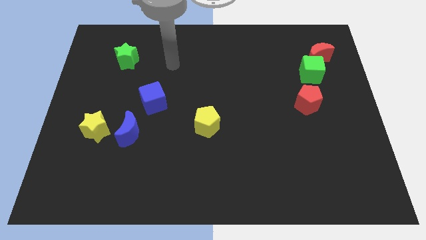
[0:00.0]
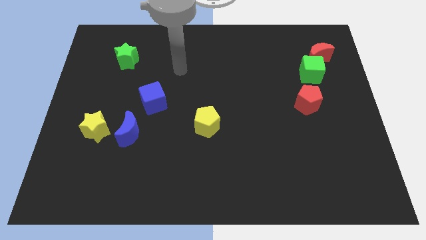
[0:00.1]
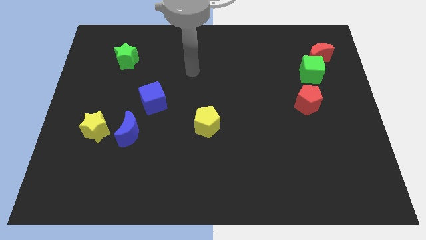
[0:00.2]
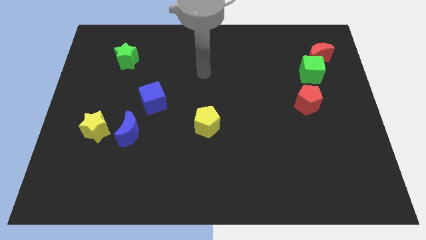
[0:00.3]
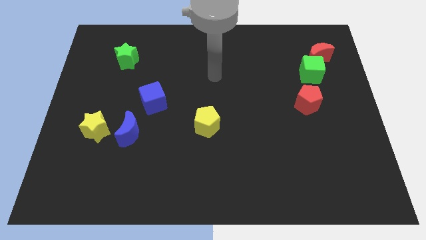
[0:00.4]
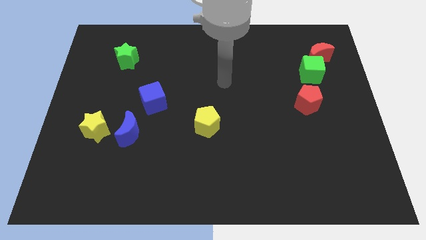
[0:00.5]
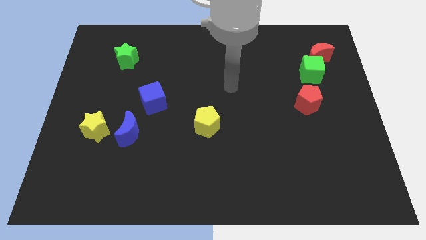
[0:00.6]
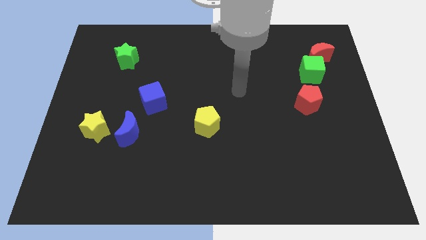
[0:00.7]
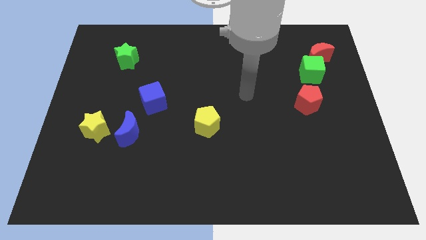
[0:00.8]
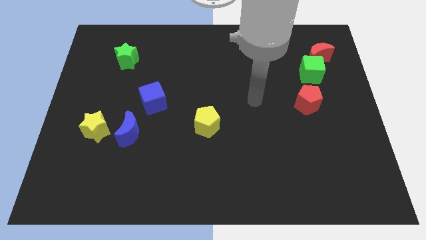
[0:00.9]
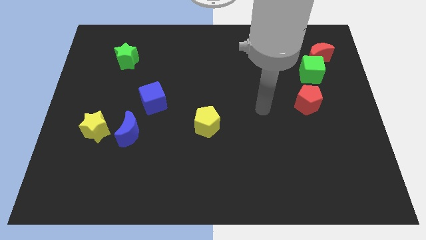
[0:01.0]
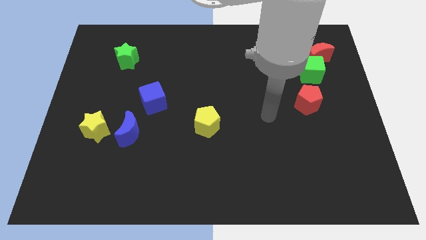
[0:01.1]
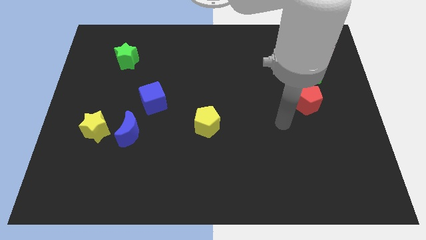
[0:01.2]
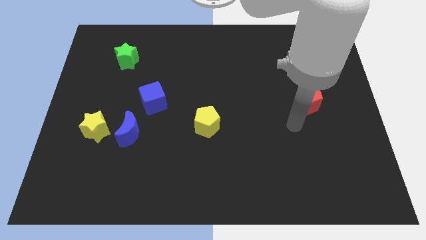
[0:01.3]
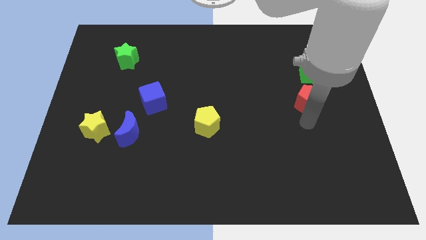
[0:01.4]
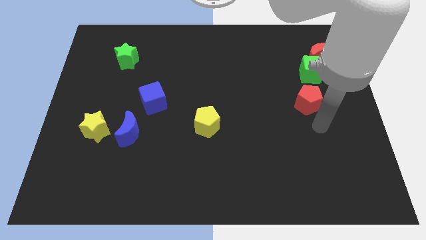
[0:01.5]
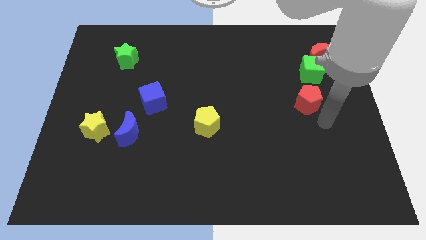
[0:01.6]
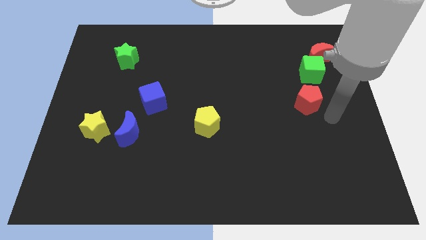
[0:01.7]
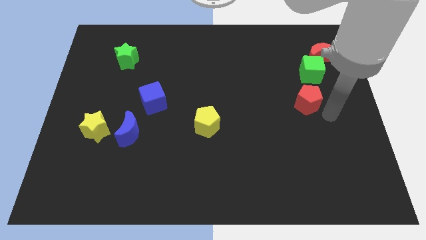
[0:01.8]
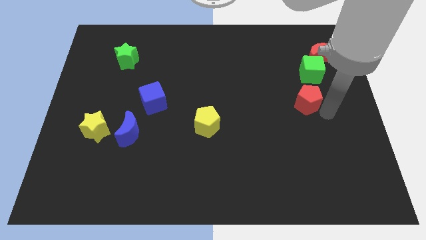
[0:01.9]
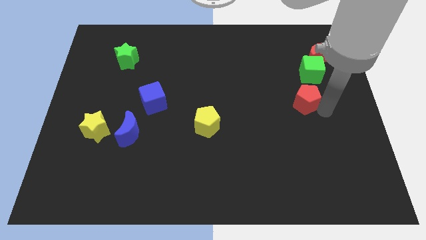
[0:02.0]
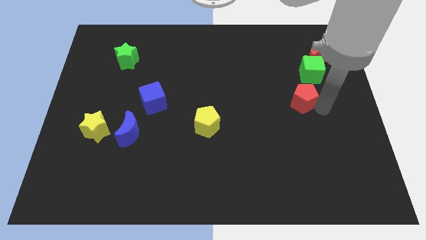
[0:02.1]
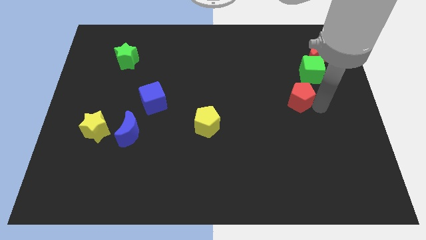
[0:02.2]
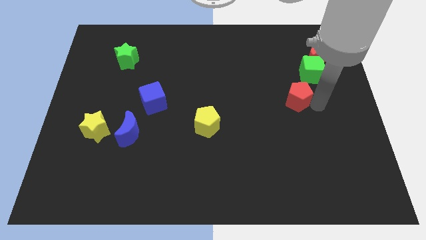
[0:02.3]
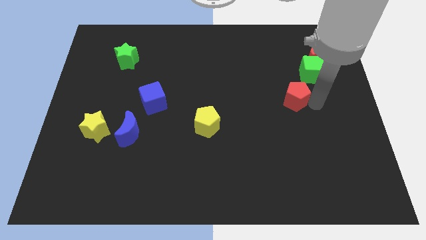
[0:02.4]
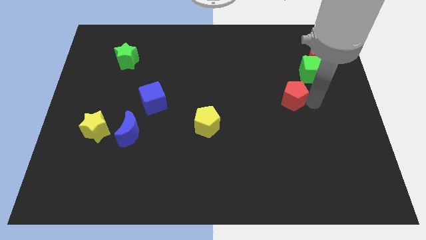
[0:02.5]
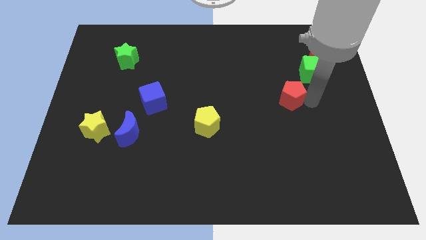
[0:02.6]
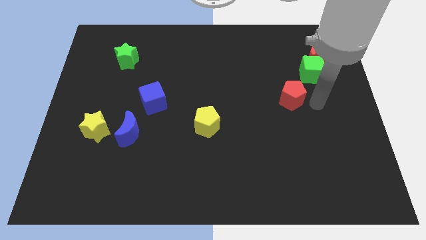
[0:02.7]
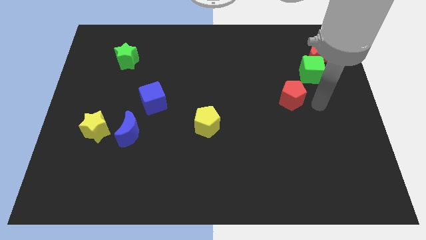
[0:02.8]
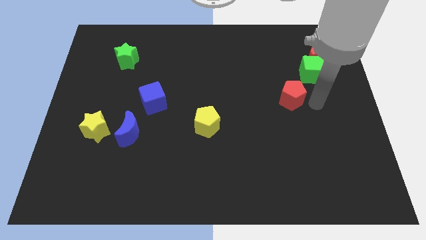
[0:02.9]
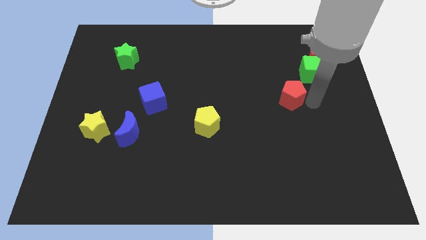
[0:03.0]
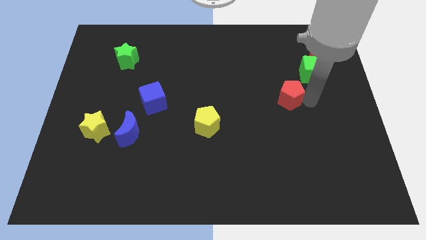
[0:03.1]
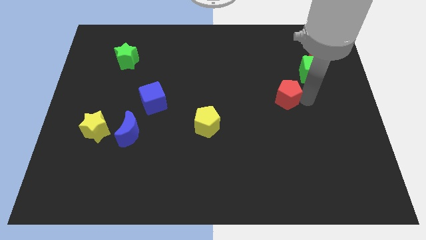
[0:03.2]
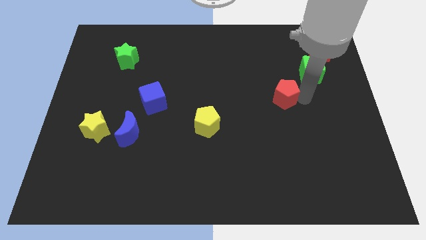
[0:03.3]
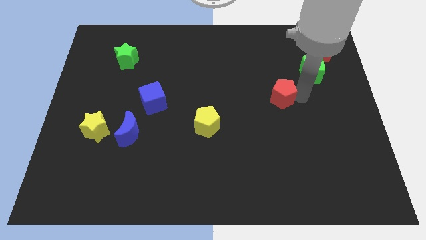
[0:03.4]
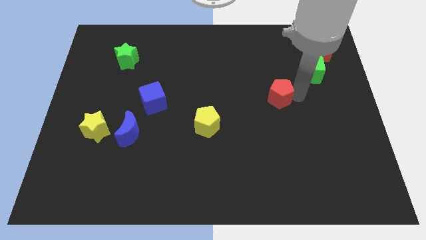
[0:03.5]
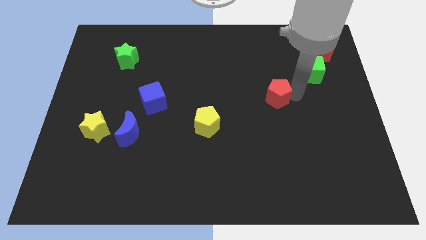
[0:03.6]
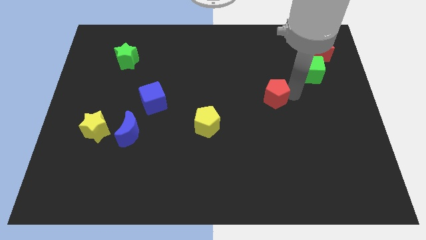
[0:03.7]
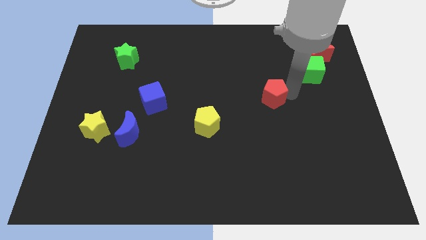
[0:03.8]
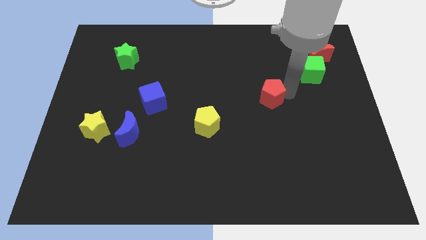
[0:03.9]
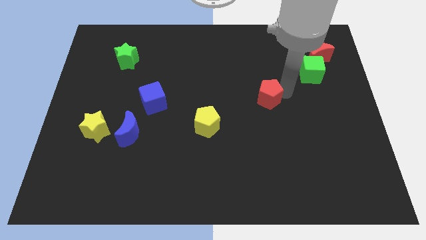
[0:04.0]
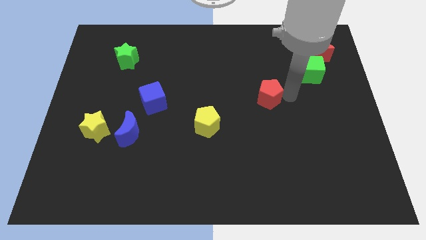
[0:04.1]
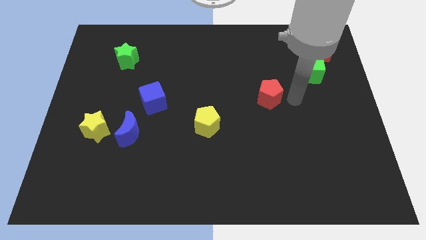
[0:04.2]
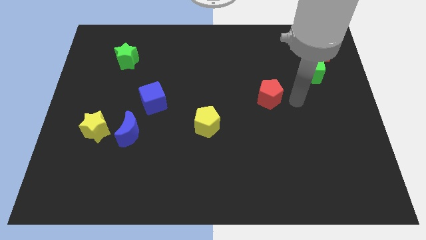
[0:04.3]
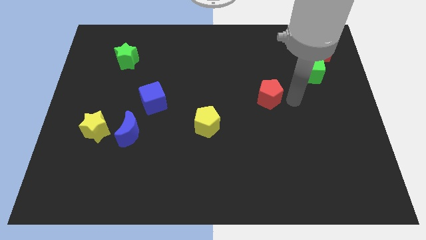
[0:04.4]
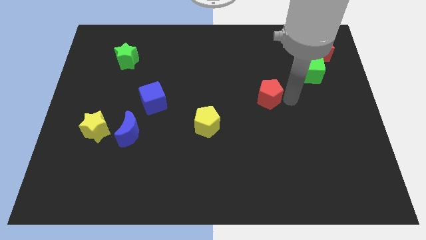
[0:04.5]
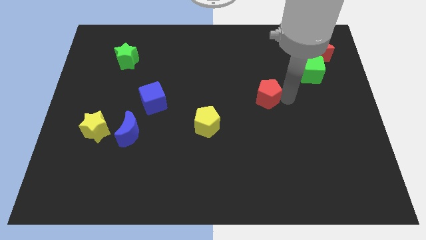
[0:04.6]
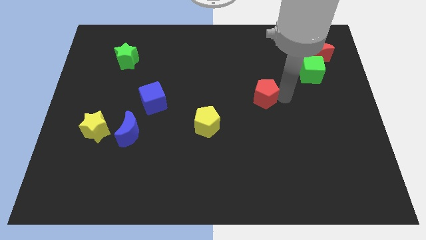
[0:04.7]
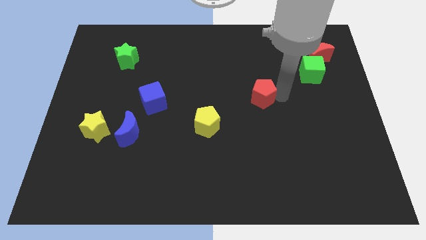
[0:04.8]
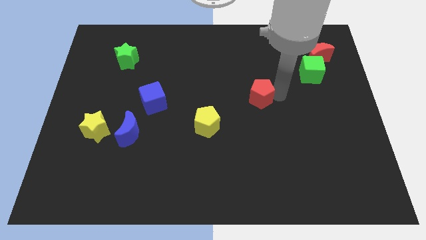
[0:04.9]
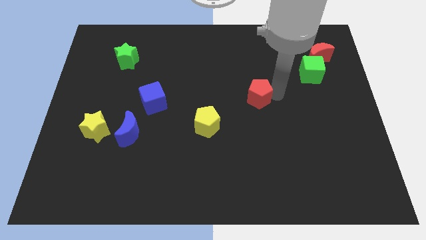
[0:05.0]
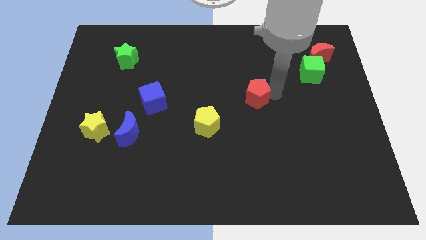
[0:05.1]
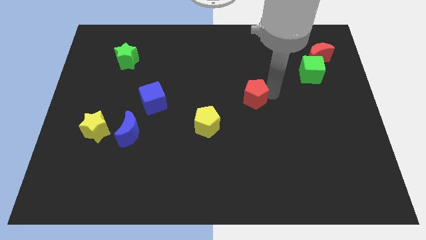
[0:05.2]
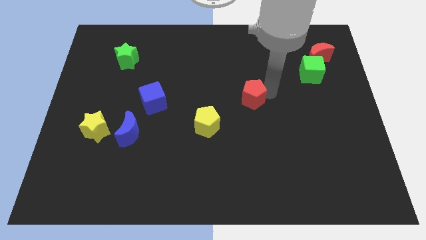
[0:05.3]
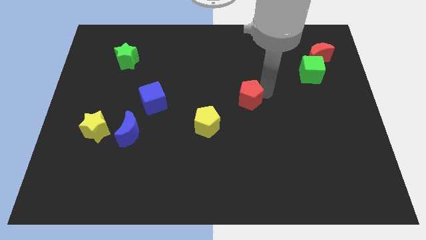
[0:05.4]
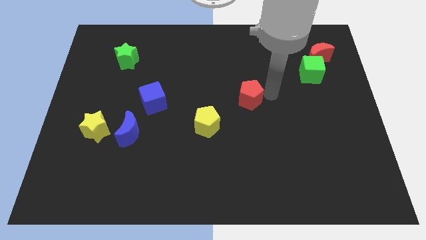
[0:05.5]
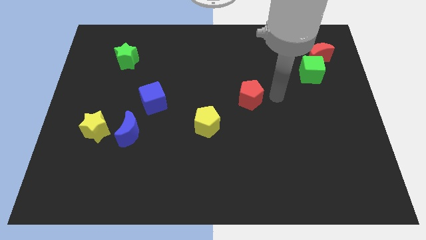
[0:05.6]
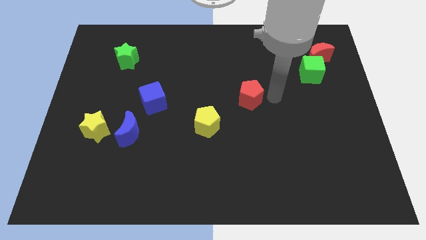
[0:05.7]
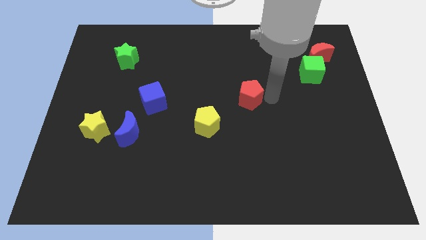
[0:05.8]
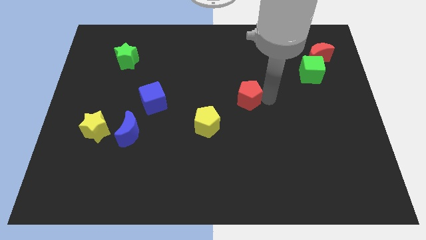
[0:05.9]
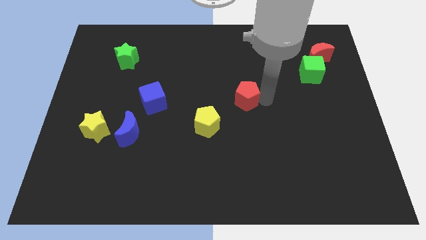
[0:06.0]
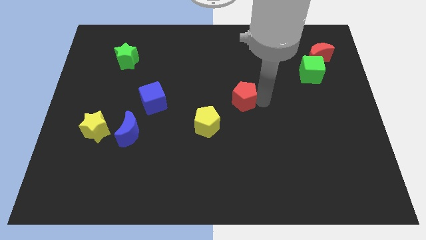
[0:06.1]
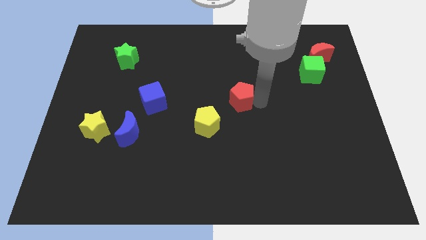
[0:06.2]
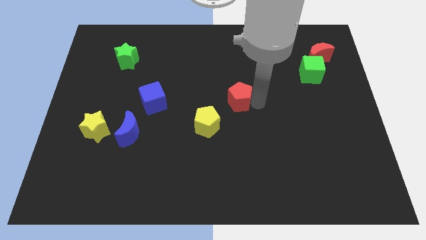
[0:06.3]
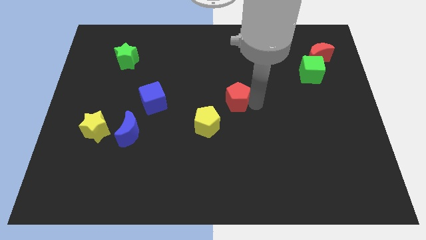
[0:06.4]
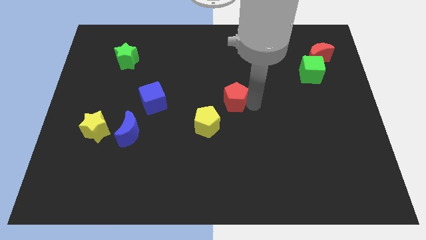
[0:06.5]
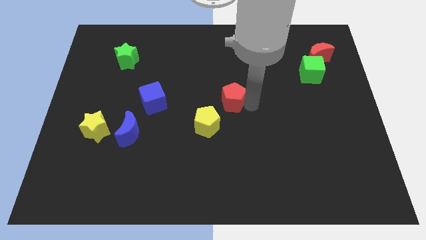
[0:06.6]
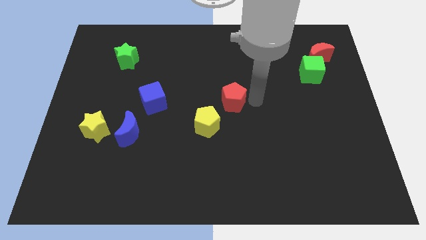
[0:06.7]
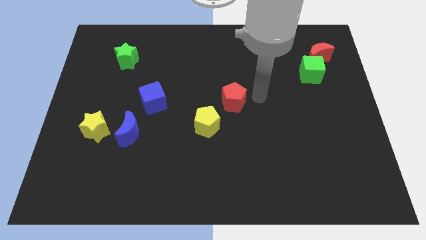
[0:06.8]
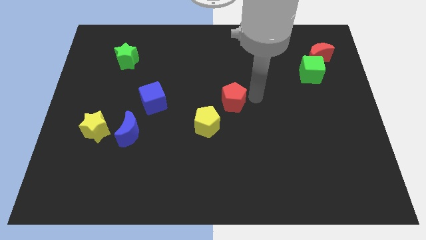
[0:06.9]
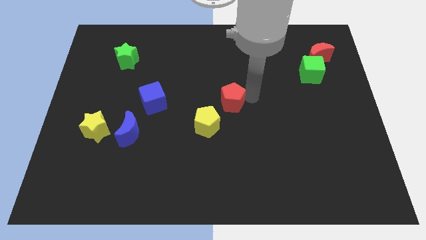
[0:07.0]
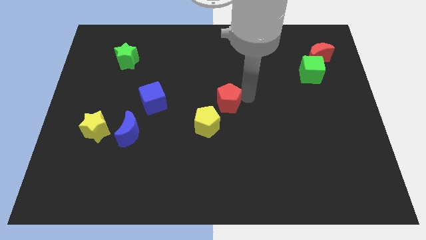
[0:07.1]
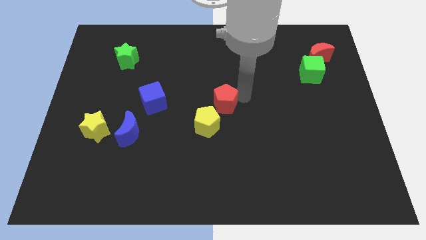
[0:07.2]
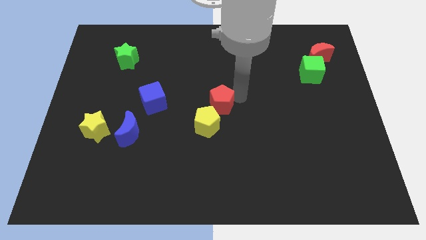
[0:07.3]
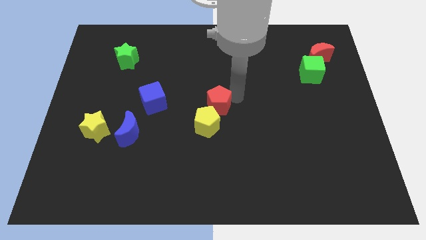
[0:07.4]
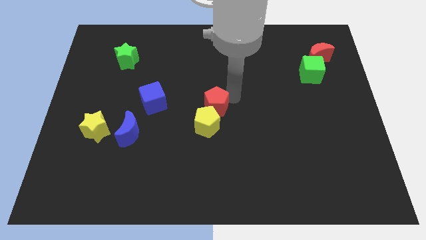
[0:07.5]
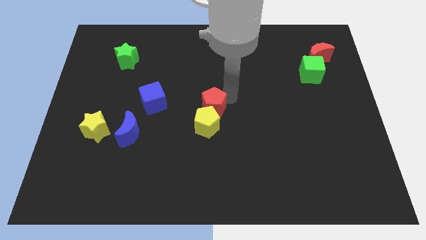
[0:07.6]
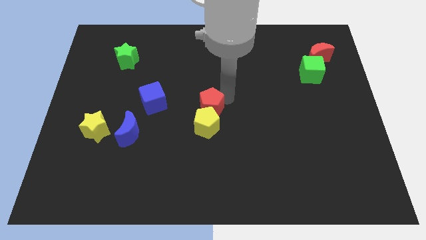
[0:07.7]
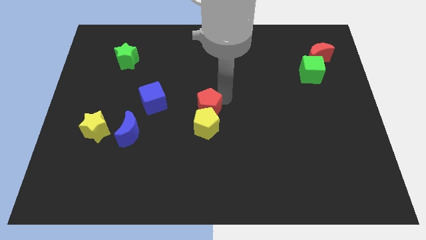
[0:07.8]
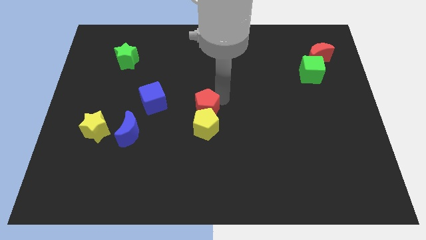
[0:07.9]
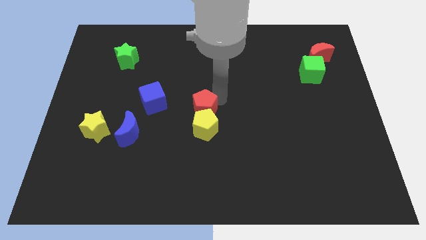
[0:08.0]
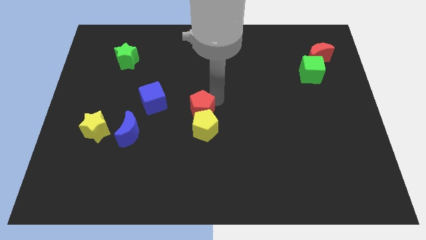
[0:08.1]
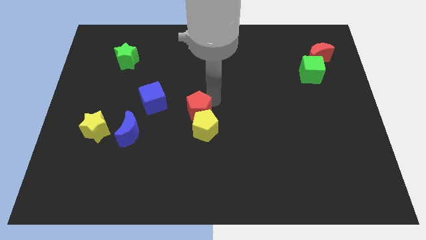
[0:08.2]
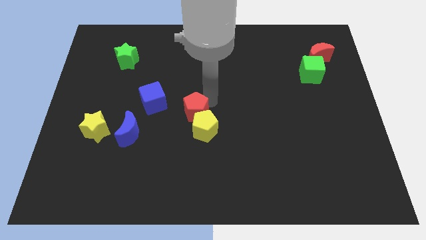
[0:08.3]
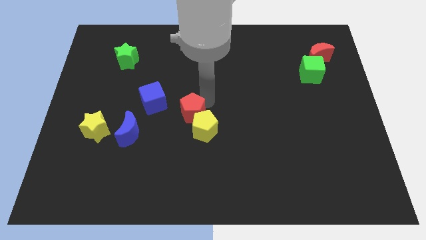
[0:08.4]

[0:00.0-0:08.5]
put the red pentagon to the bottom right side of the blue cube

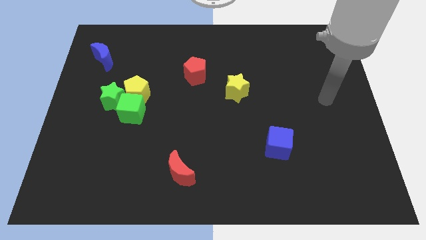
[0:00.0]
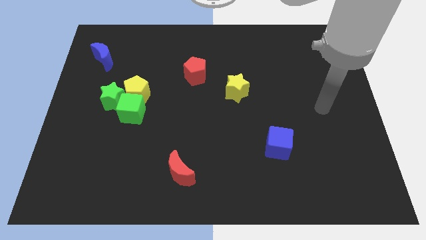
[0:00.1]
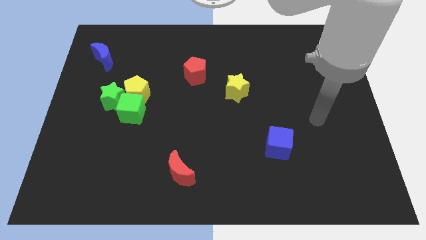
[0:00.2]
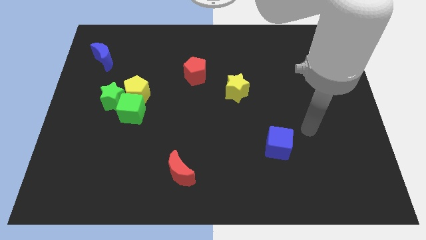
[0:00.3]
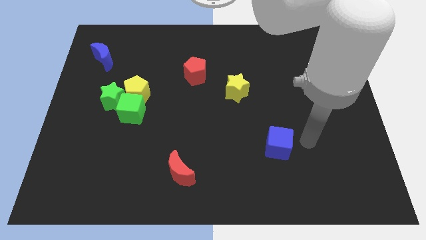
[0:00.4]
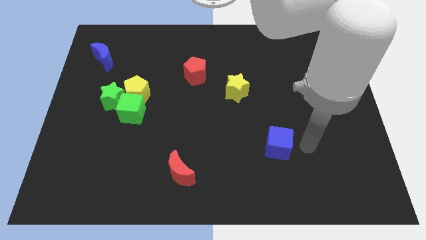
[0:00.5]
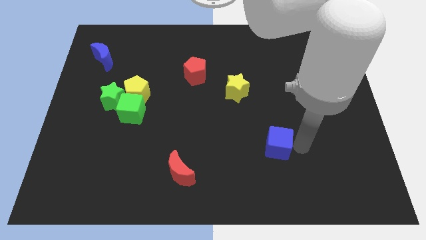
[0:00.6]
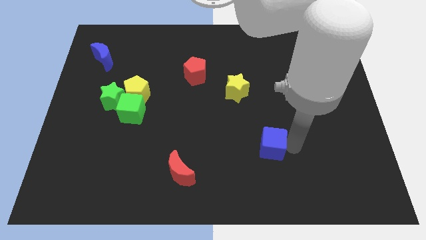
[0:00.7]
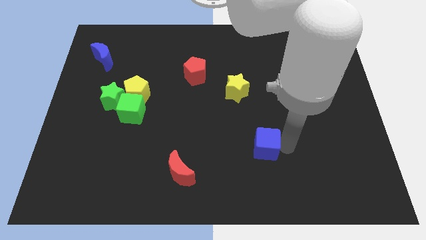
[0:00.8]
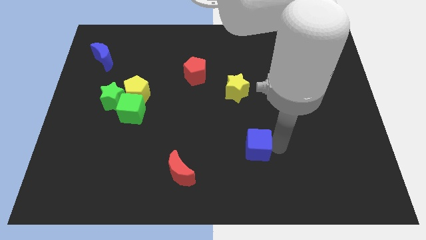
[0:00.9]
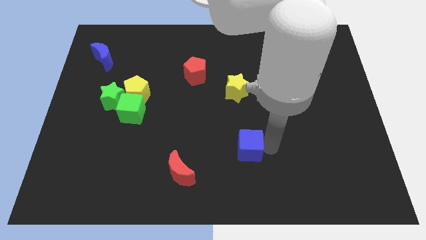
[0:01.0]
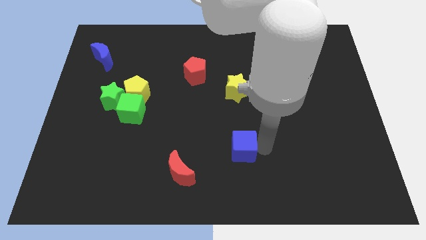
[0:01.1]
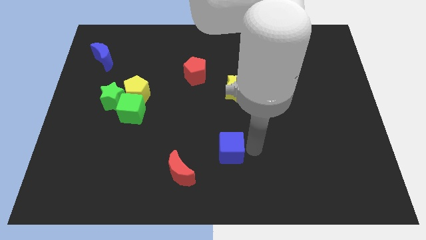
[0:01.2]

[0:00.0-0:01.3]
move the blue cube to the top right side of the red moon
